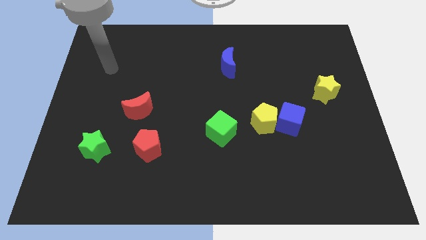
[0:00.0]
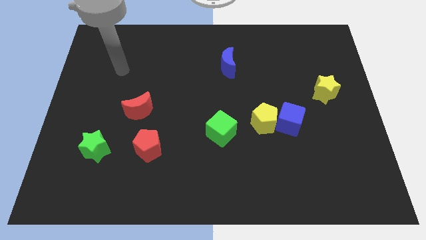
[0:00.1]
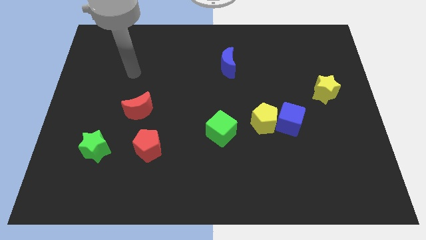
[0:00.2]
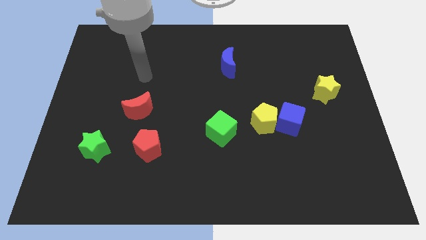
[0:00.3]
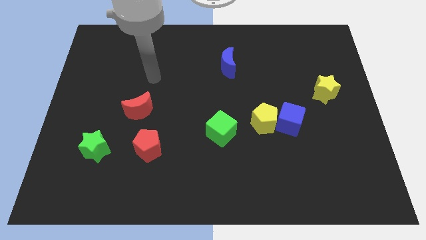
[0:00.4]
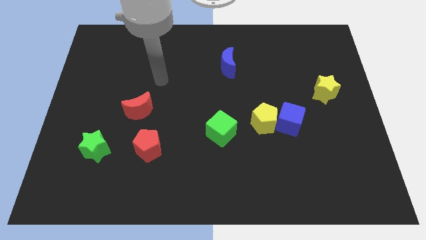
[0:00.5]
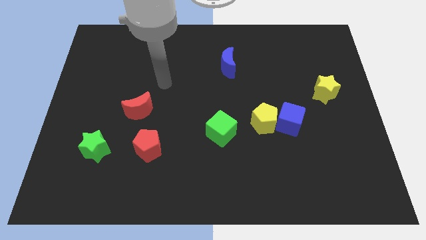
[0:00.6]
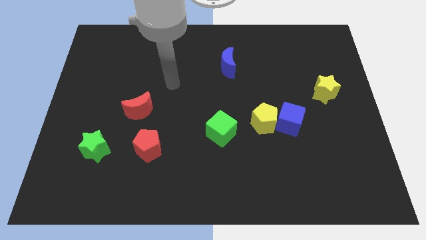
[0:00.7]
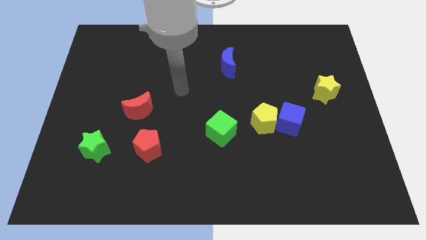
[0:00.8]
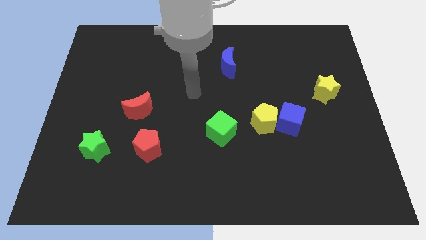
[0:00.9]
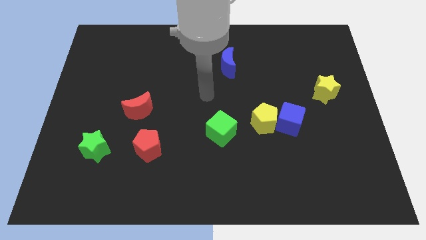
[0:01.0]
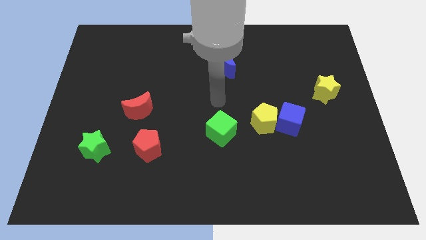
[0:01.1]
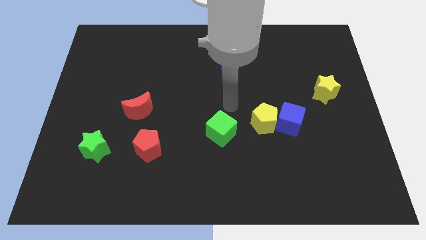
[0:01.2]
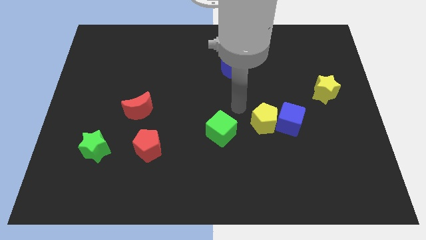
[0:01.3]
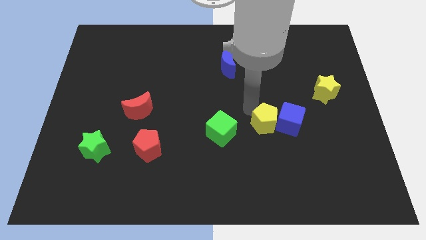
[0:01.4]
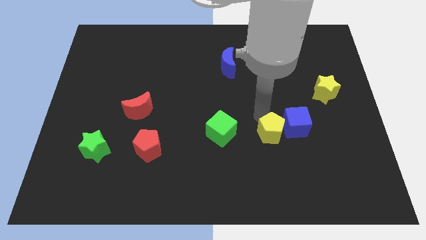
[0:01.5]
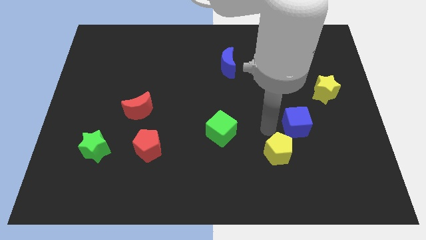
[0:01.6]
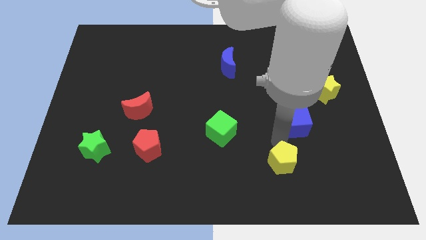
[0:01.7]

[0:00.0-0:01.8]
separate the blue cube from the yellow pentagon

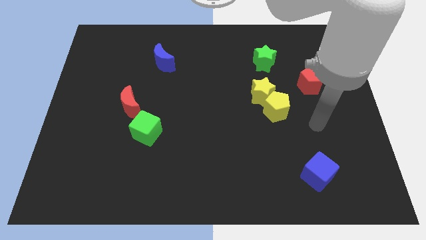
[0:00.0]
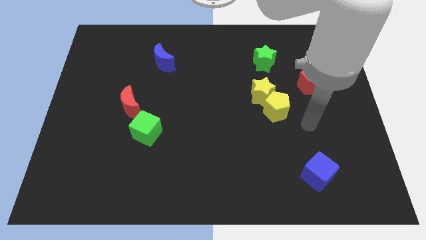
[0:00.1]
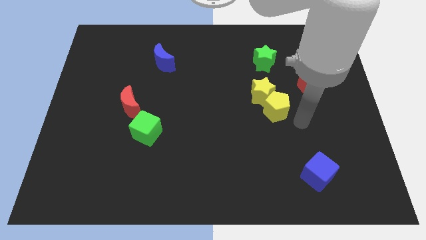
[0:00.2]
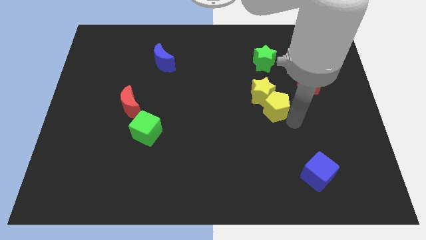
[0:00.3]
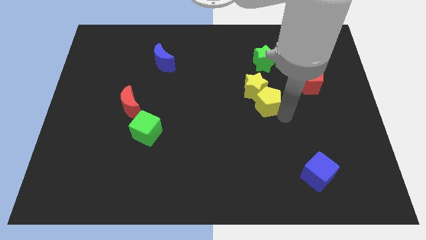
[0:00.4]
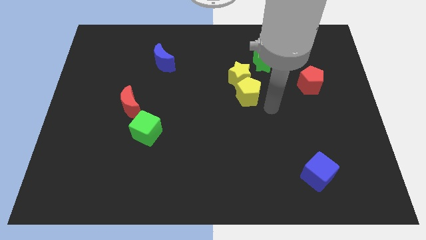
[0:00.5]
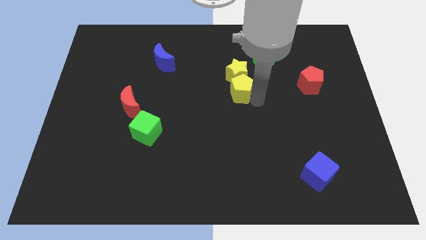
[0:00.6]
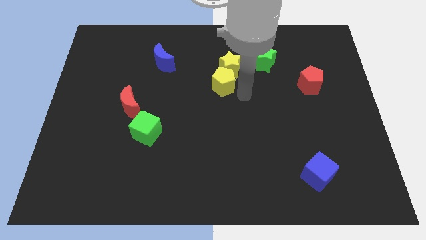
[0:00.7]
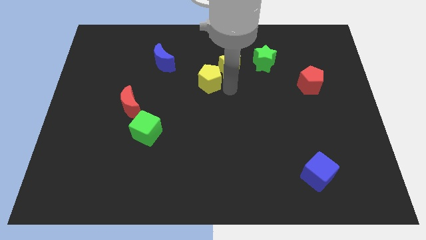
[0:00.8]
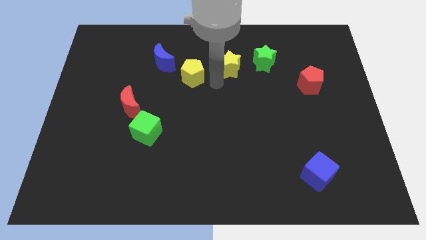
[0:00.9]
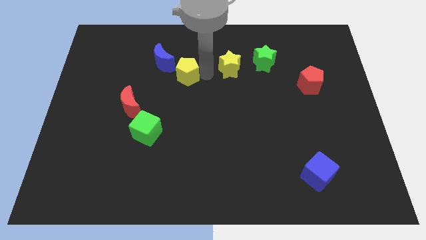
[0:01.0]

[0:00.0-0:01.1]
pull the yellow star apart from the yellow pentagon

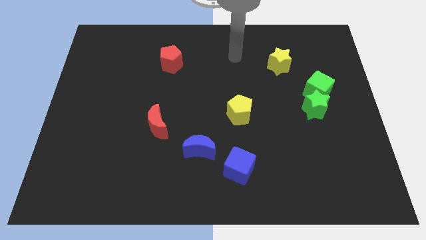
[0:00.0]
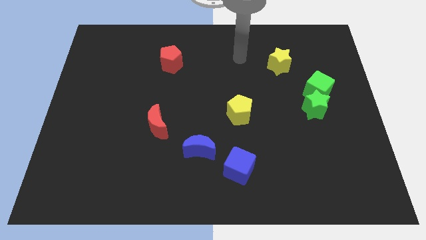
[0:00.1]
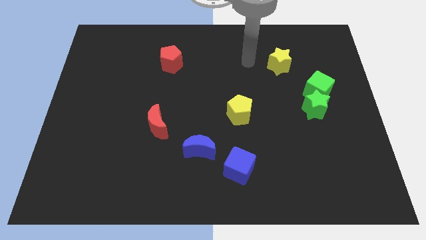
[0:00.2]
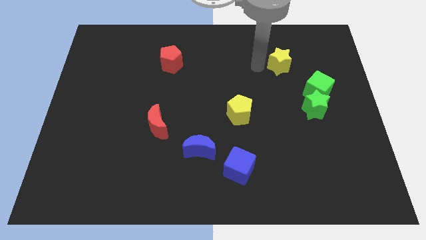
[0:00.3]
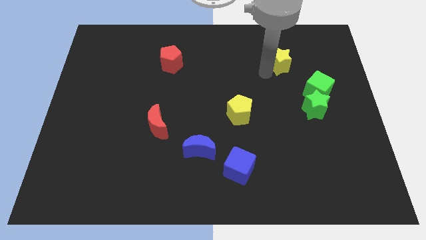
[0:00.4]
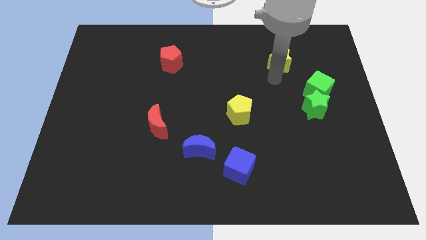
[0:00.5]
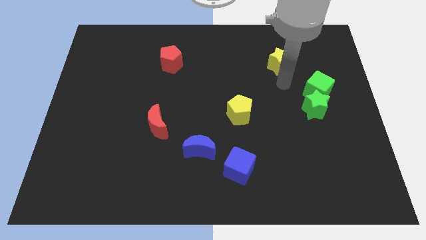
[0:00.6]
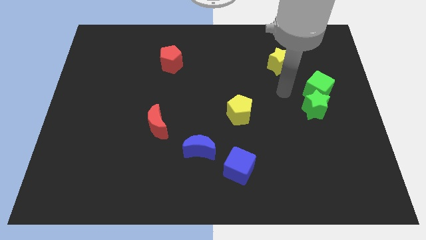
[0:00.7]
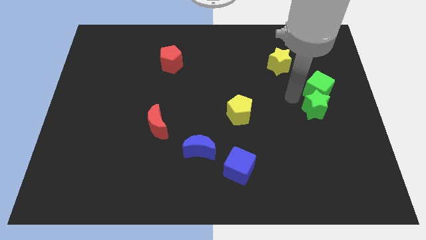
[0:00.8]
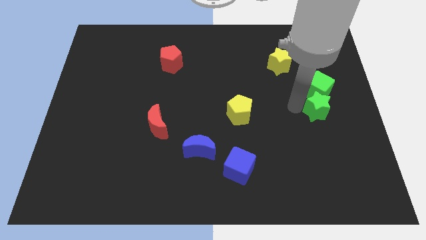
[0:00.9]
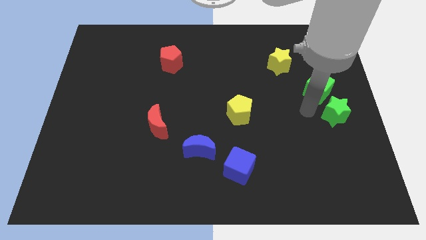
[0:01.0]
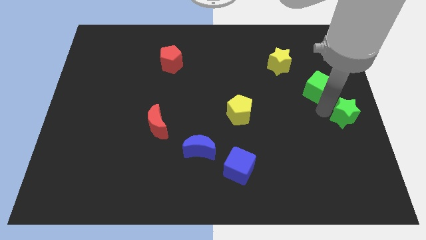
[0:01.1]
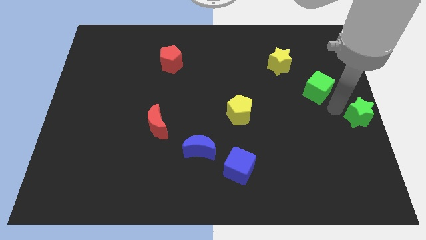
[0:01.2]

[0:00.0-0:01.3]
move the green cube away from the green star

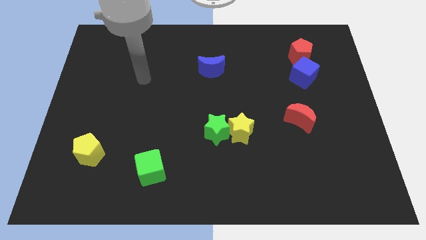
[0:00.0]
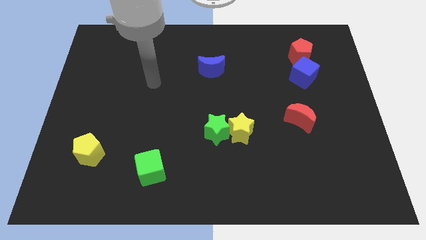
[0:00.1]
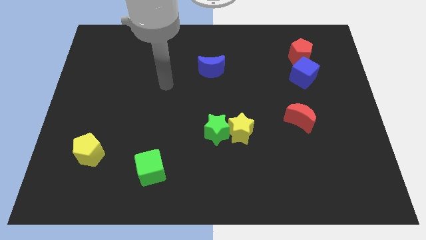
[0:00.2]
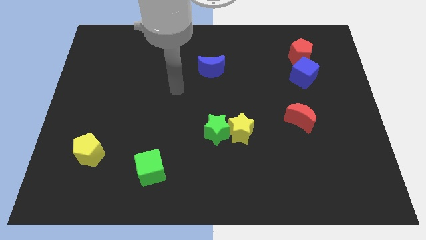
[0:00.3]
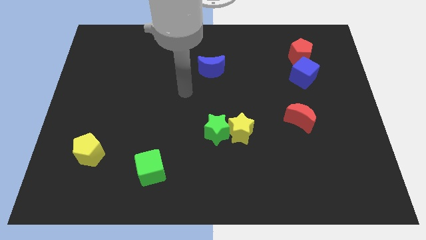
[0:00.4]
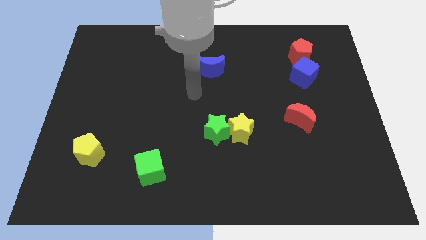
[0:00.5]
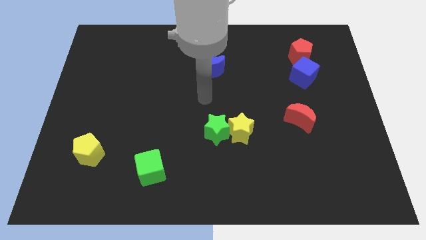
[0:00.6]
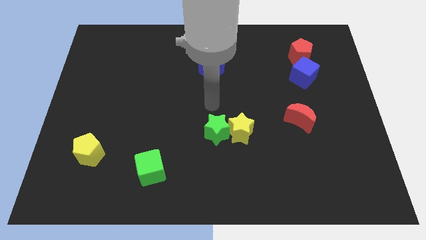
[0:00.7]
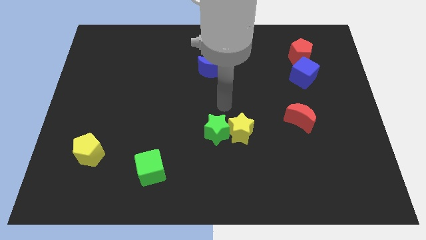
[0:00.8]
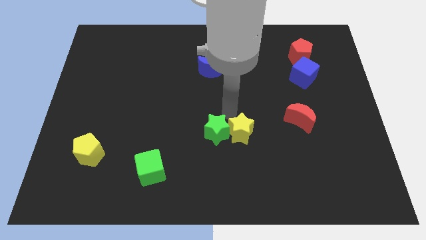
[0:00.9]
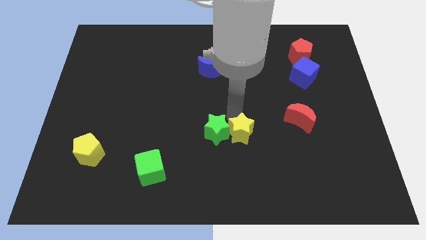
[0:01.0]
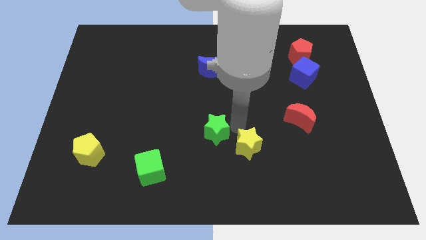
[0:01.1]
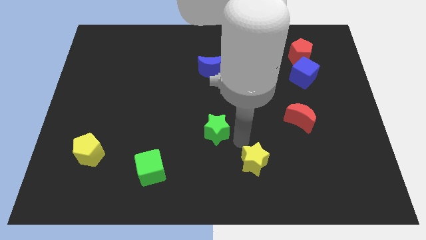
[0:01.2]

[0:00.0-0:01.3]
pull the green star apart from the yellow star

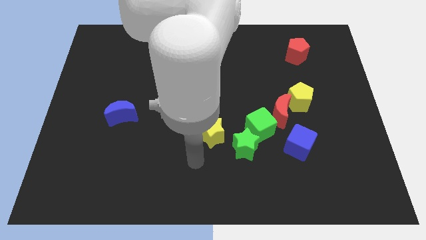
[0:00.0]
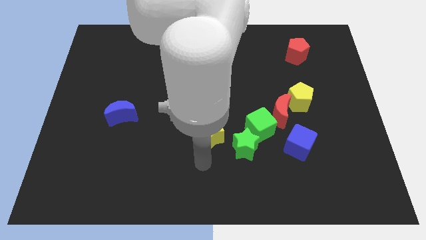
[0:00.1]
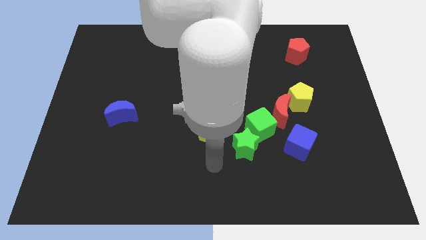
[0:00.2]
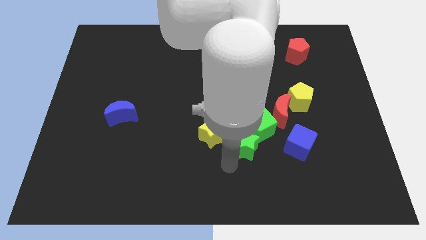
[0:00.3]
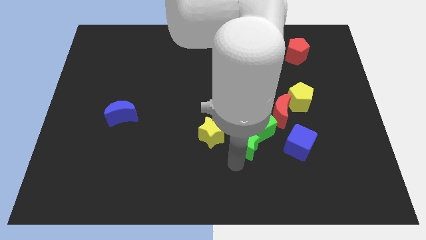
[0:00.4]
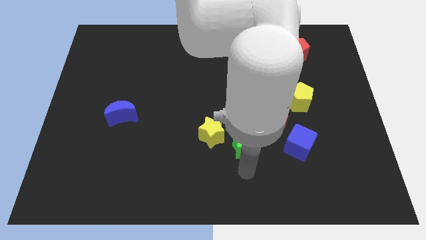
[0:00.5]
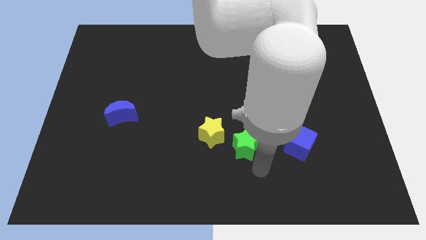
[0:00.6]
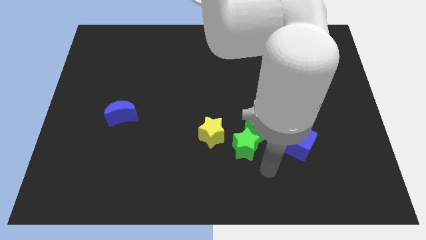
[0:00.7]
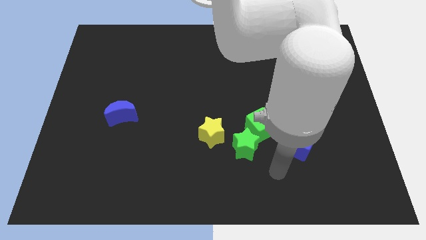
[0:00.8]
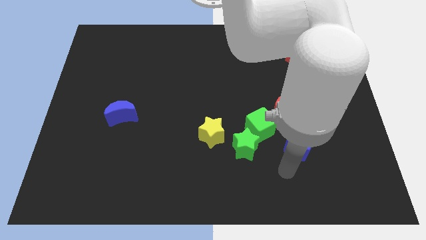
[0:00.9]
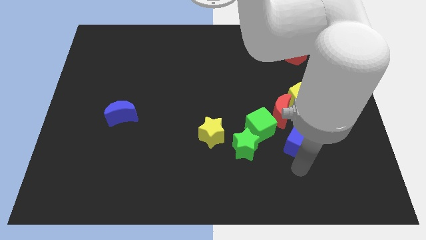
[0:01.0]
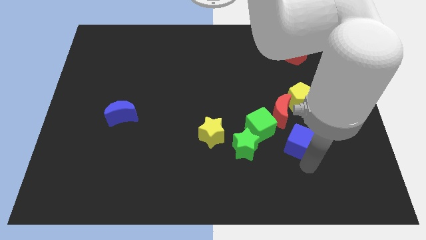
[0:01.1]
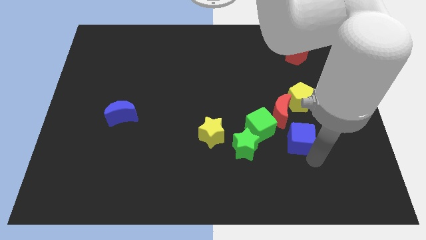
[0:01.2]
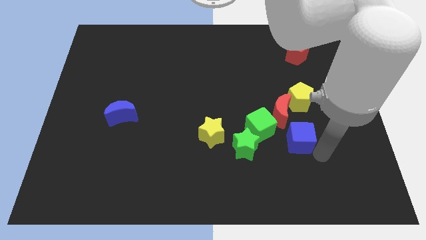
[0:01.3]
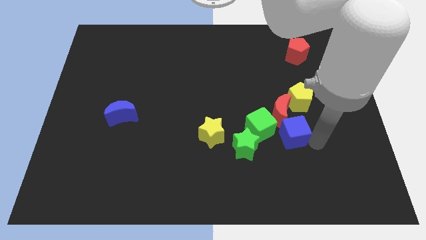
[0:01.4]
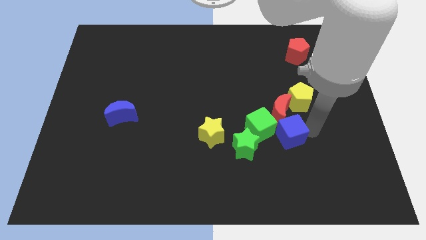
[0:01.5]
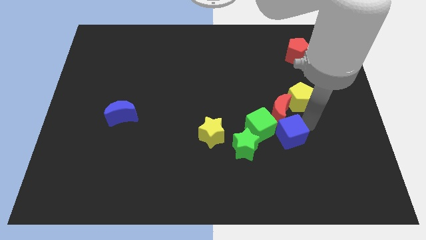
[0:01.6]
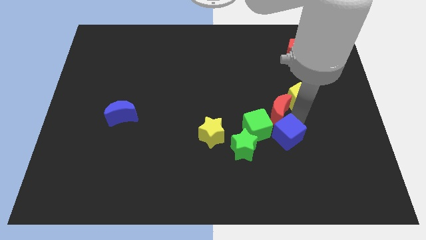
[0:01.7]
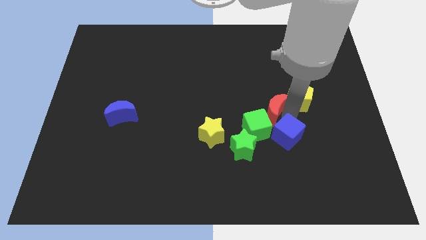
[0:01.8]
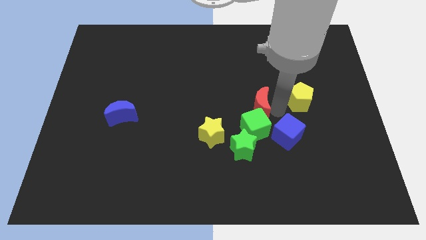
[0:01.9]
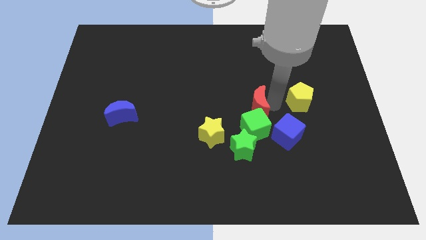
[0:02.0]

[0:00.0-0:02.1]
move the yellow pentagon away from the red moon

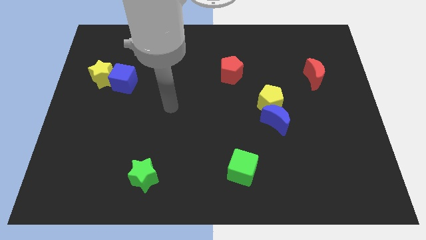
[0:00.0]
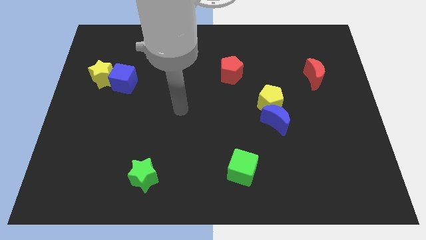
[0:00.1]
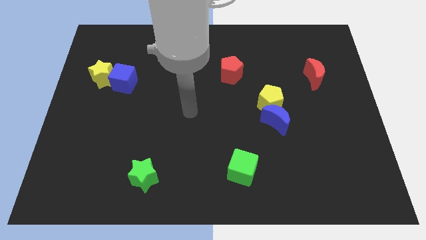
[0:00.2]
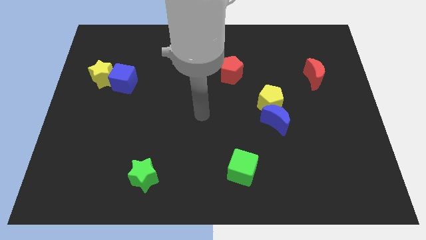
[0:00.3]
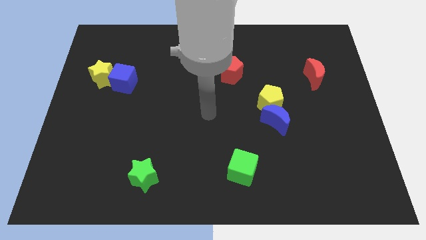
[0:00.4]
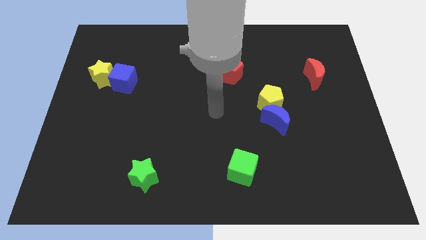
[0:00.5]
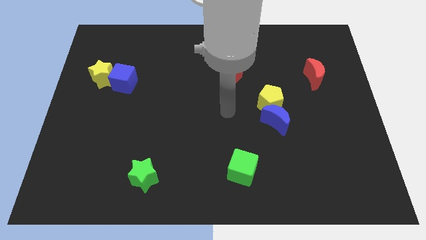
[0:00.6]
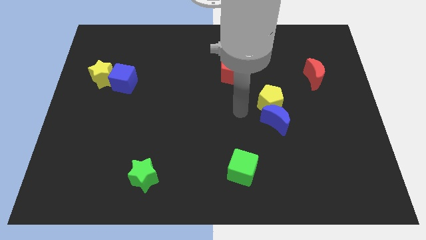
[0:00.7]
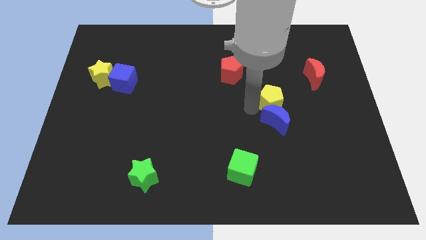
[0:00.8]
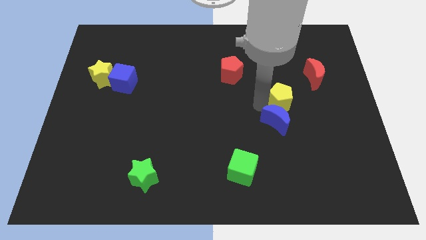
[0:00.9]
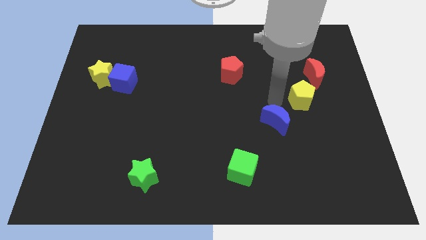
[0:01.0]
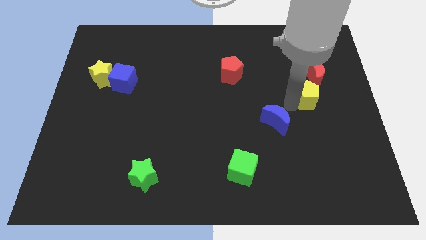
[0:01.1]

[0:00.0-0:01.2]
separate the blue moon from the yellow pentagon

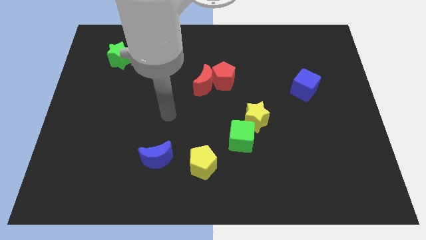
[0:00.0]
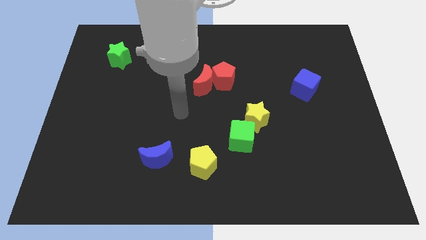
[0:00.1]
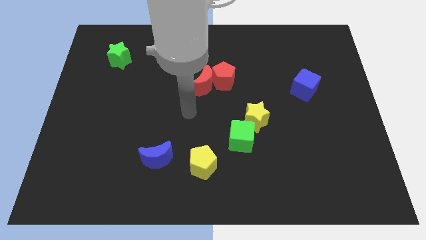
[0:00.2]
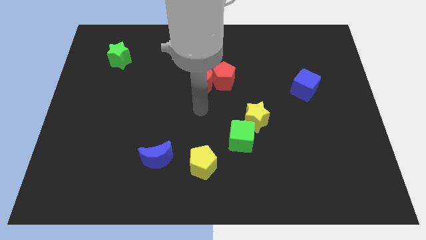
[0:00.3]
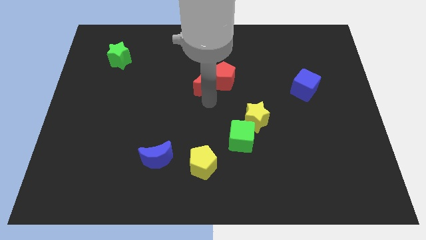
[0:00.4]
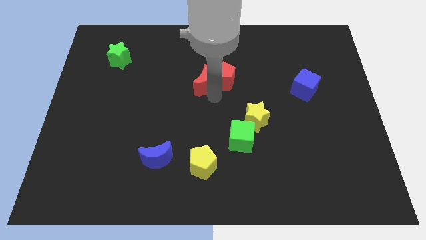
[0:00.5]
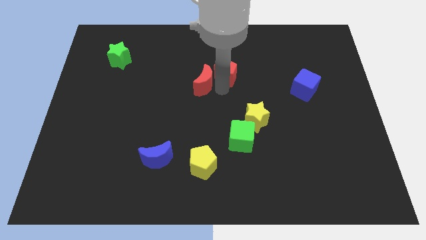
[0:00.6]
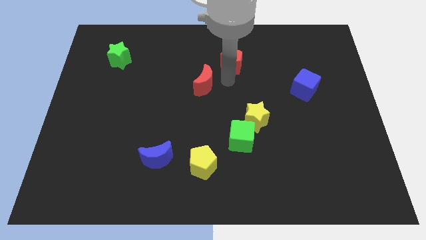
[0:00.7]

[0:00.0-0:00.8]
separate the red moon from the red pentagon
